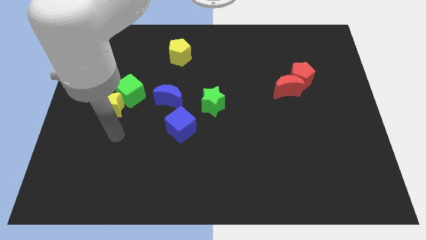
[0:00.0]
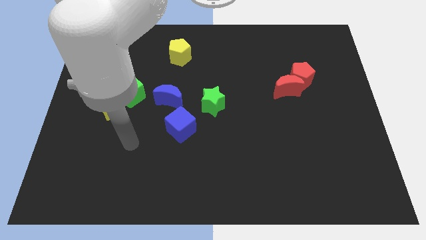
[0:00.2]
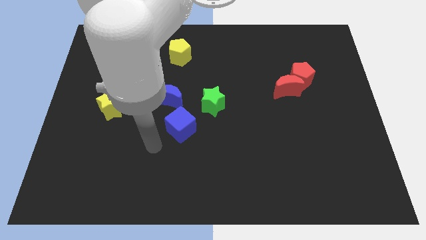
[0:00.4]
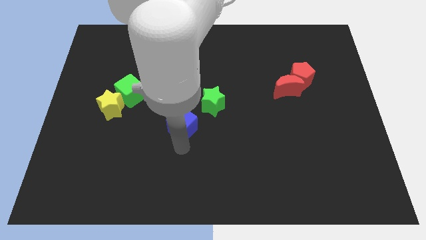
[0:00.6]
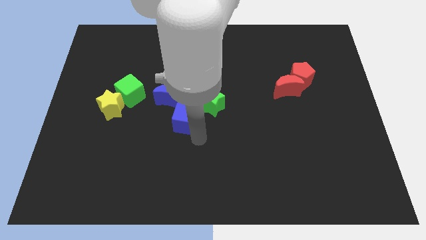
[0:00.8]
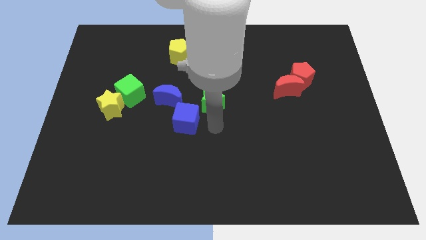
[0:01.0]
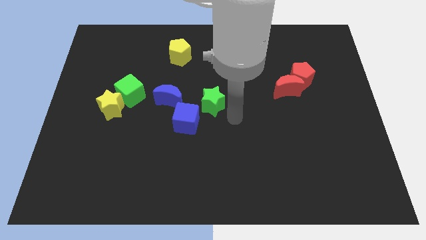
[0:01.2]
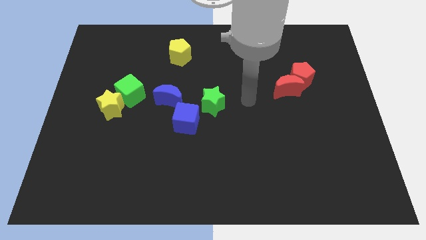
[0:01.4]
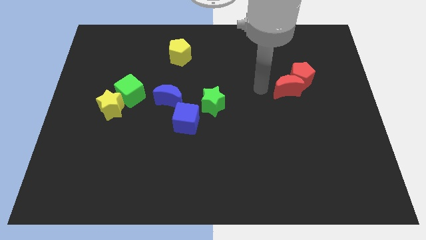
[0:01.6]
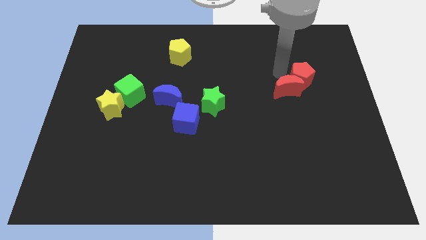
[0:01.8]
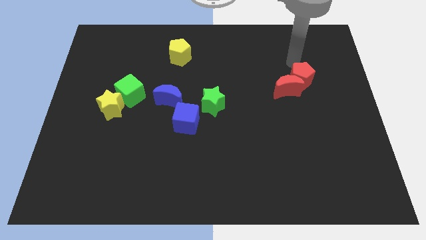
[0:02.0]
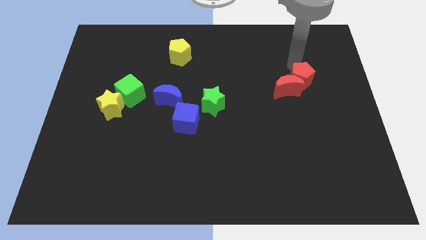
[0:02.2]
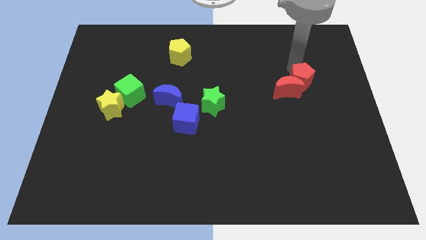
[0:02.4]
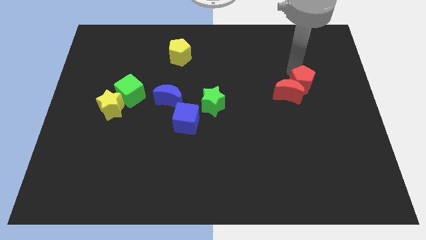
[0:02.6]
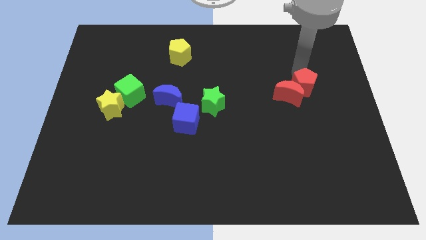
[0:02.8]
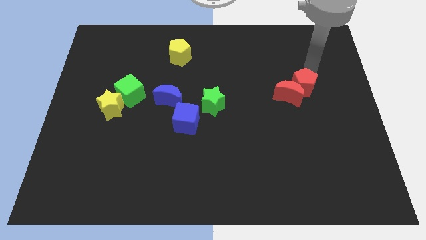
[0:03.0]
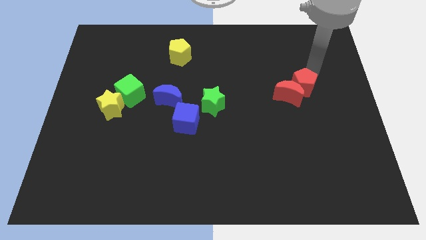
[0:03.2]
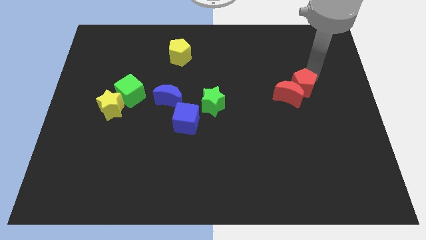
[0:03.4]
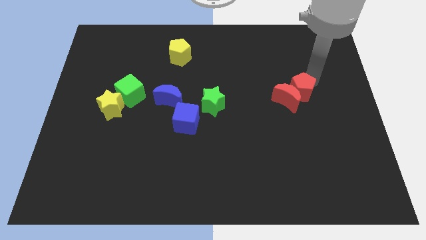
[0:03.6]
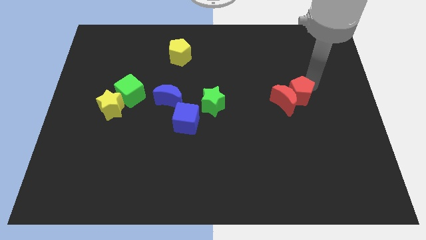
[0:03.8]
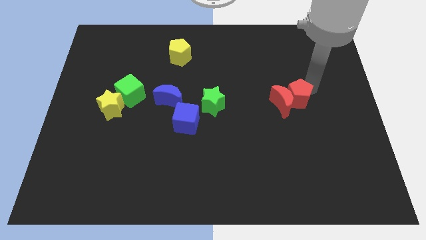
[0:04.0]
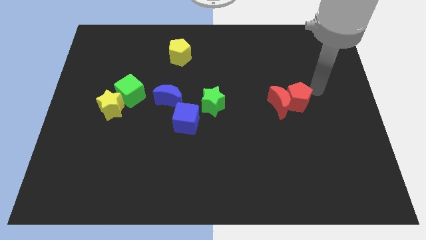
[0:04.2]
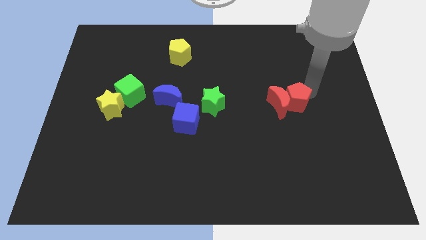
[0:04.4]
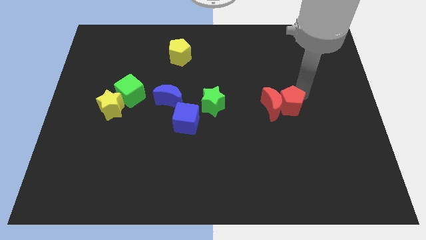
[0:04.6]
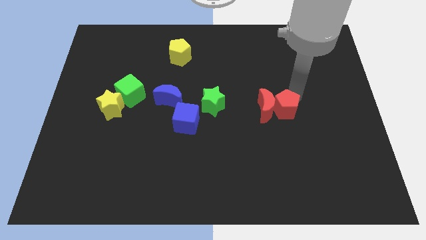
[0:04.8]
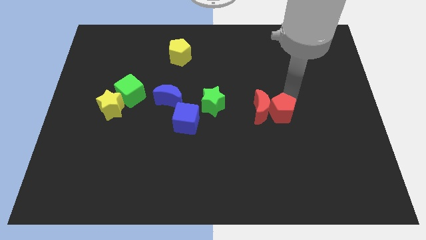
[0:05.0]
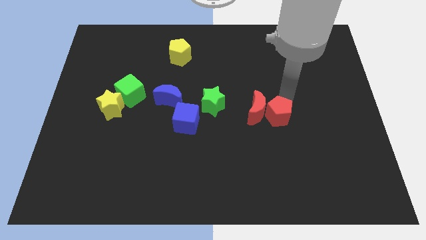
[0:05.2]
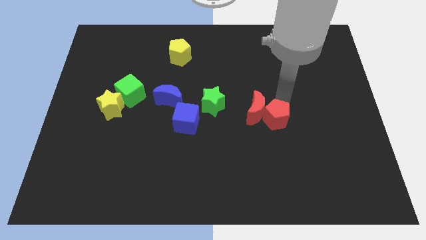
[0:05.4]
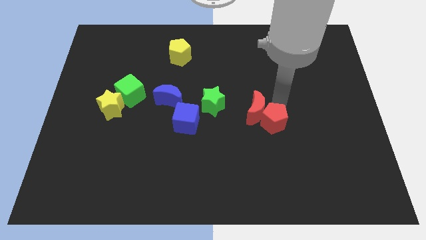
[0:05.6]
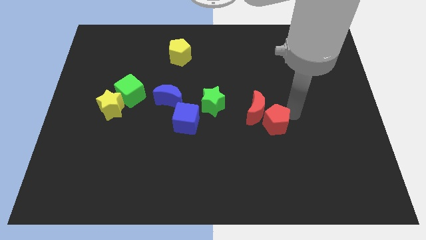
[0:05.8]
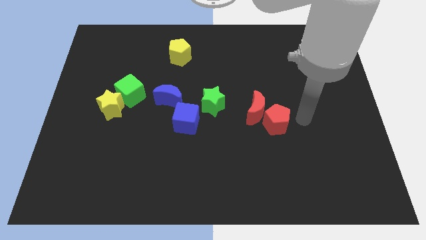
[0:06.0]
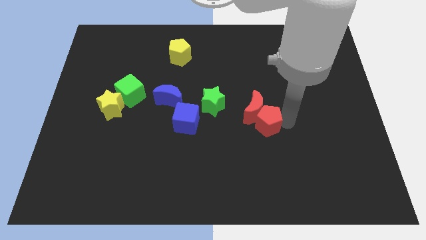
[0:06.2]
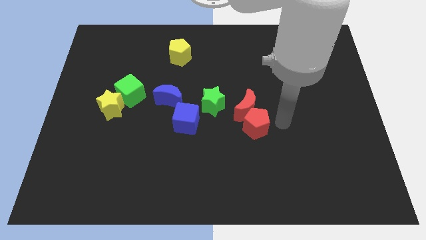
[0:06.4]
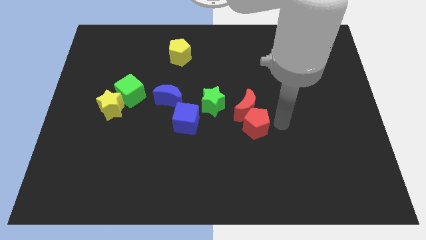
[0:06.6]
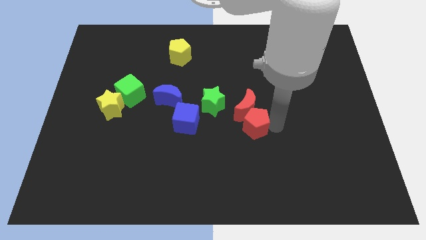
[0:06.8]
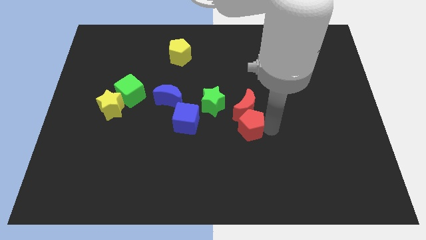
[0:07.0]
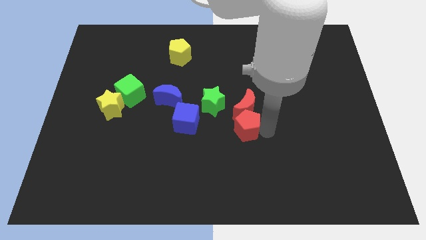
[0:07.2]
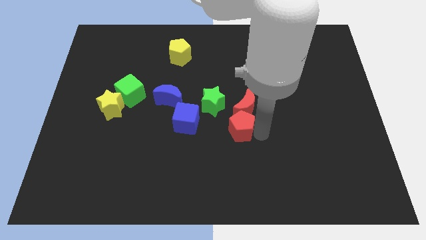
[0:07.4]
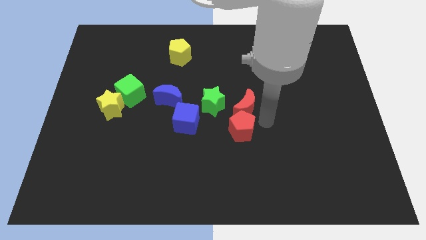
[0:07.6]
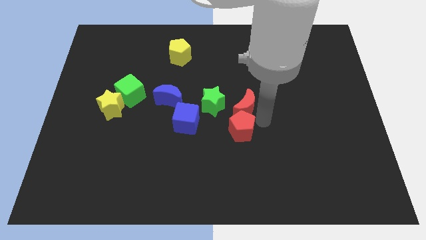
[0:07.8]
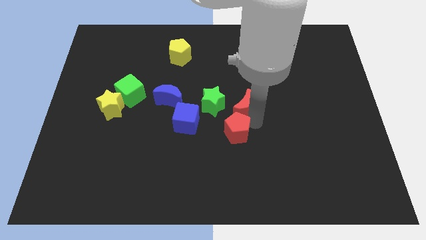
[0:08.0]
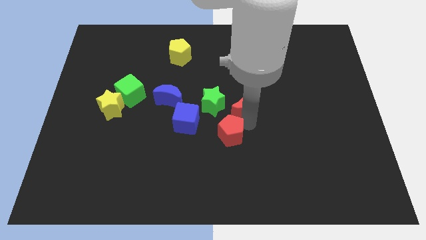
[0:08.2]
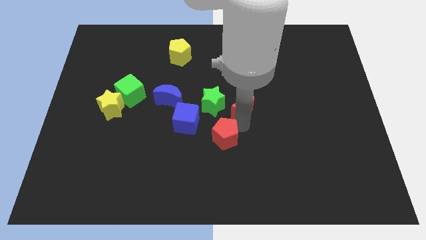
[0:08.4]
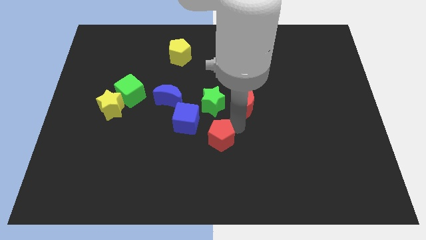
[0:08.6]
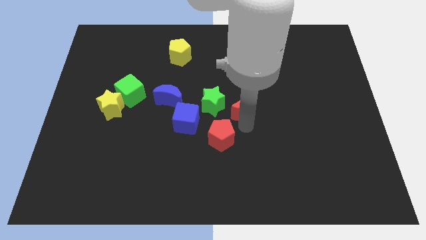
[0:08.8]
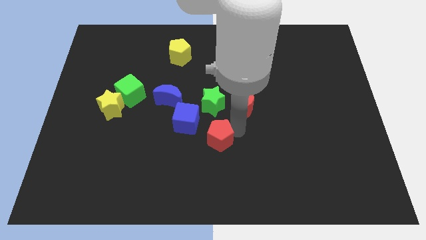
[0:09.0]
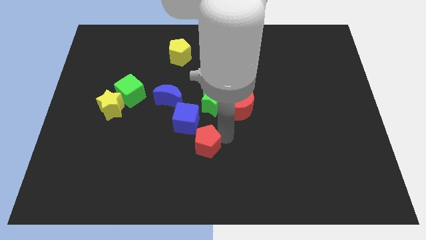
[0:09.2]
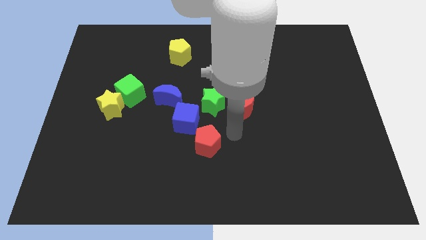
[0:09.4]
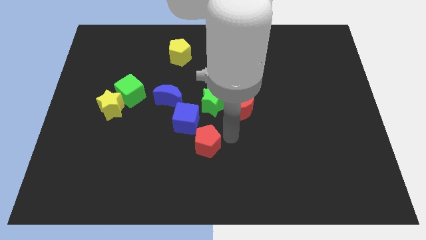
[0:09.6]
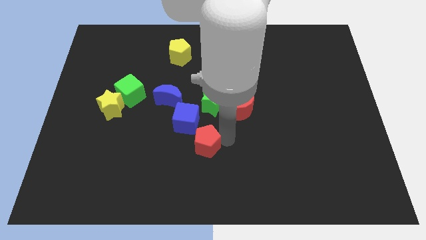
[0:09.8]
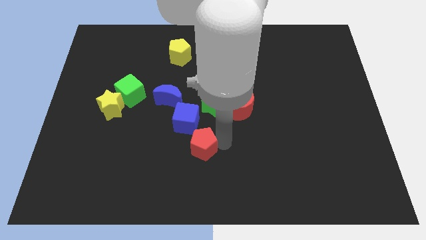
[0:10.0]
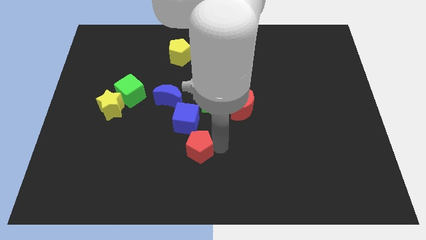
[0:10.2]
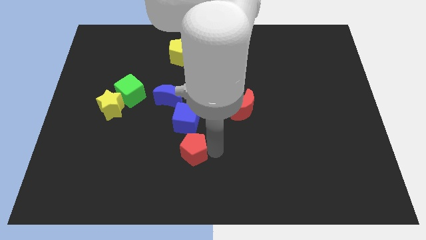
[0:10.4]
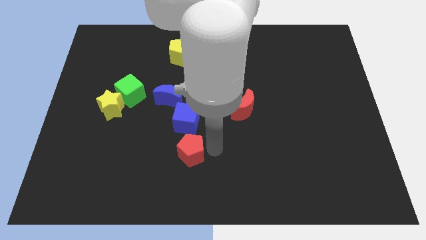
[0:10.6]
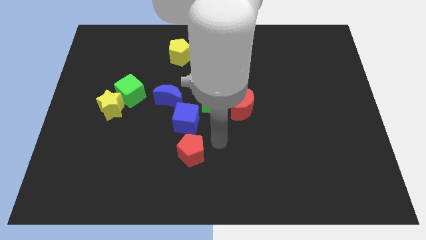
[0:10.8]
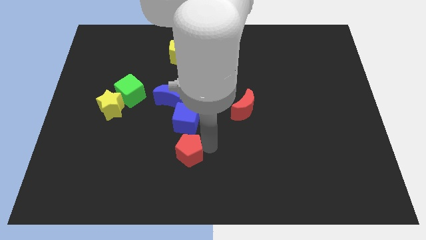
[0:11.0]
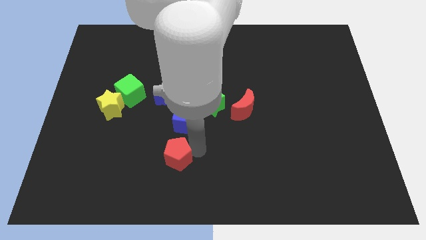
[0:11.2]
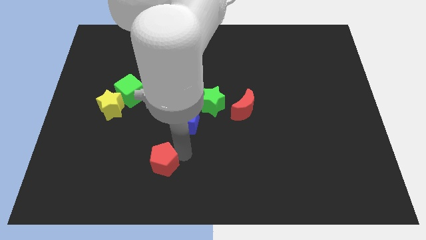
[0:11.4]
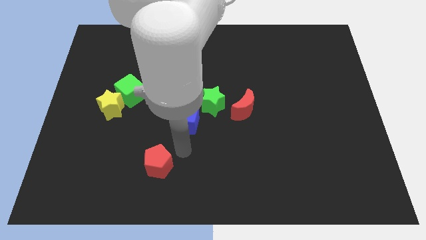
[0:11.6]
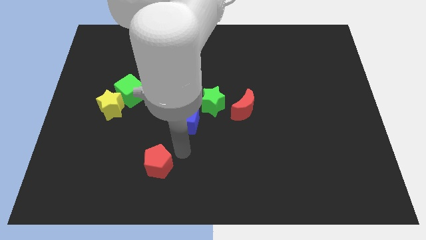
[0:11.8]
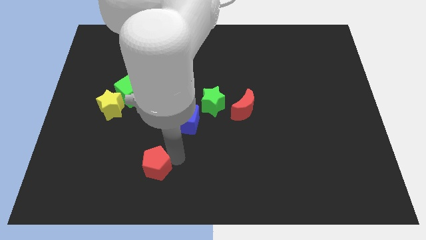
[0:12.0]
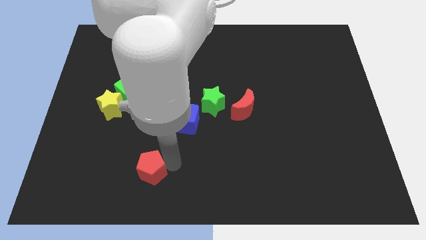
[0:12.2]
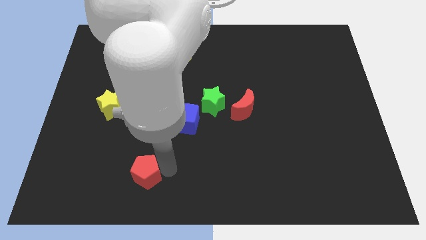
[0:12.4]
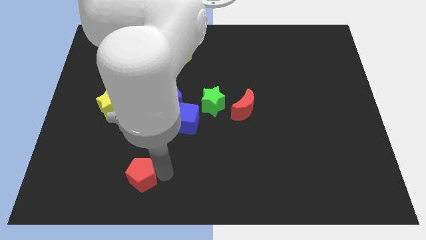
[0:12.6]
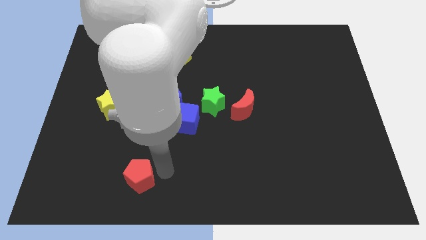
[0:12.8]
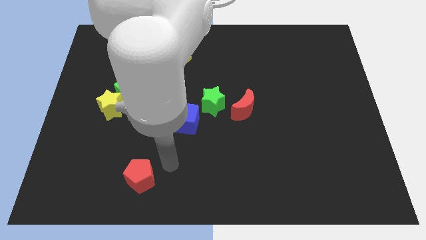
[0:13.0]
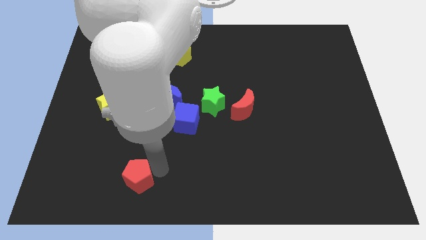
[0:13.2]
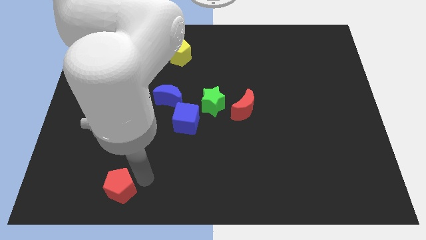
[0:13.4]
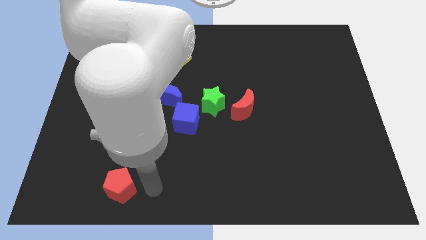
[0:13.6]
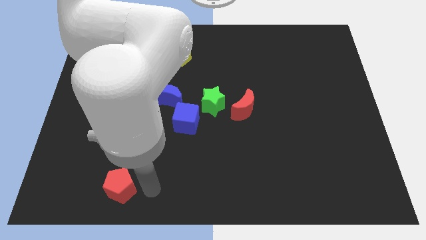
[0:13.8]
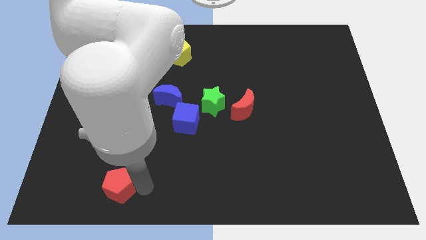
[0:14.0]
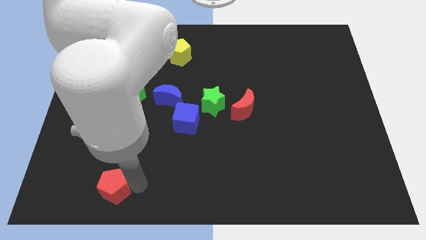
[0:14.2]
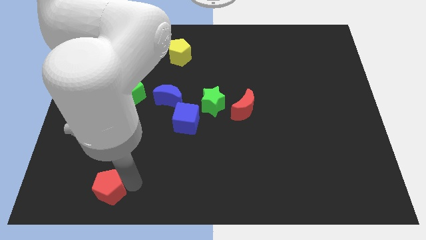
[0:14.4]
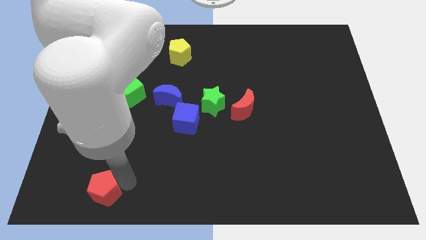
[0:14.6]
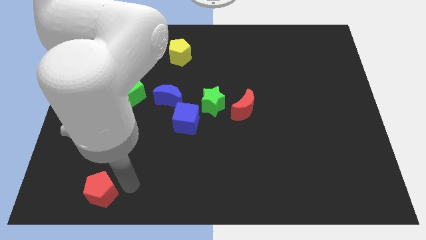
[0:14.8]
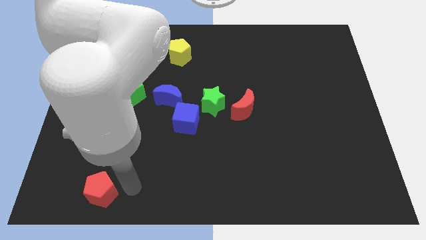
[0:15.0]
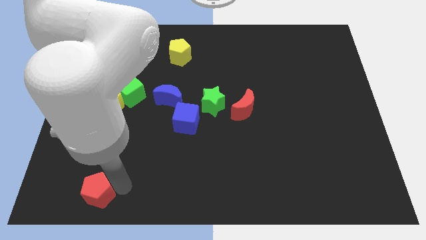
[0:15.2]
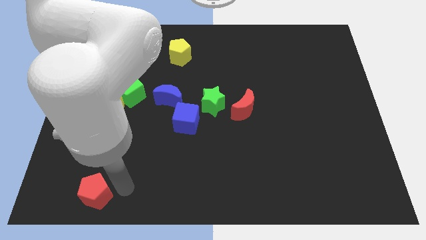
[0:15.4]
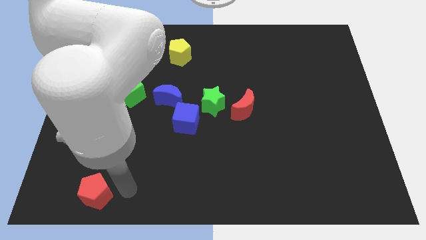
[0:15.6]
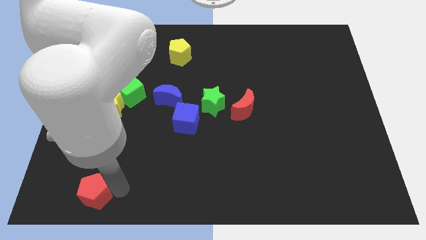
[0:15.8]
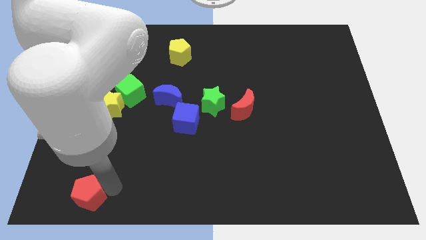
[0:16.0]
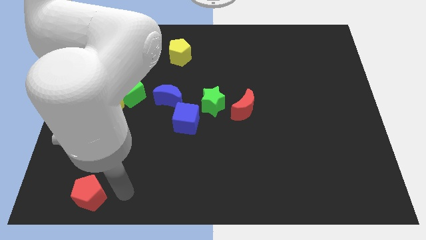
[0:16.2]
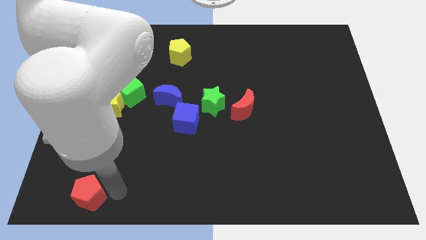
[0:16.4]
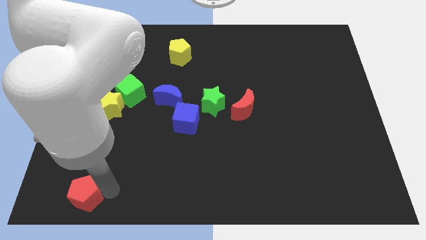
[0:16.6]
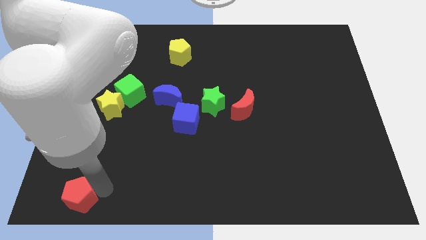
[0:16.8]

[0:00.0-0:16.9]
move the red pentagon to the bottom left corner
